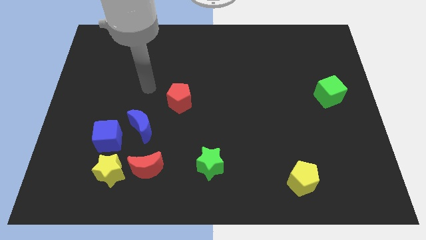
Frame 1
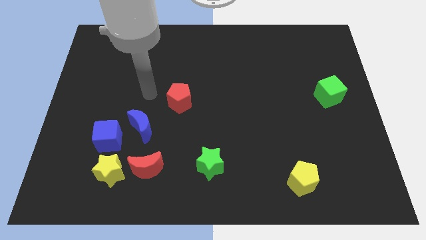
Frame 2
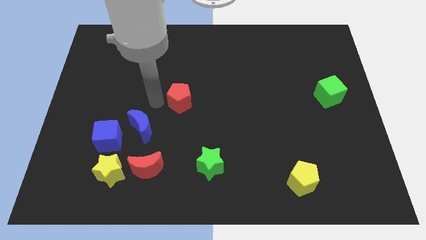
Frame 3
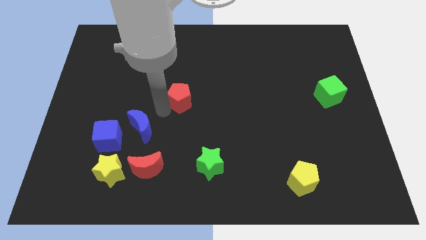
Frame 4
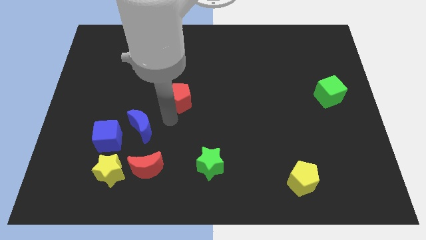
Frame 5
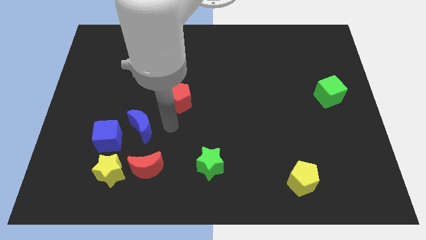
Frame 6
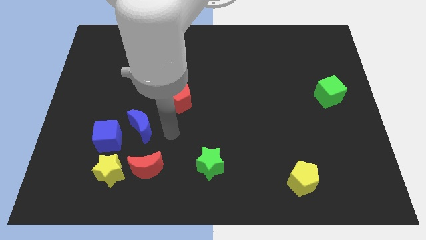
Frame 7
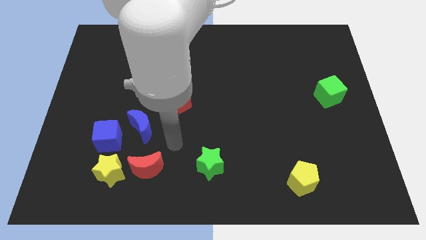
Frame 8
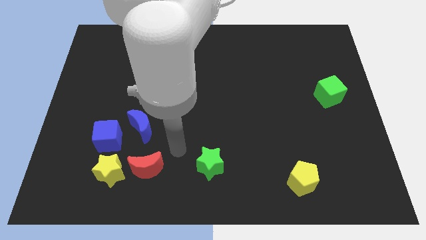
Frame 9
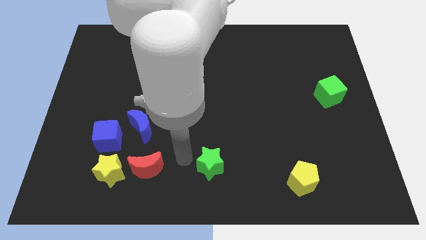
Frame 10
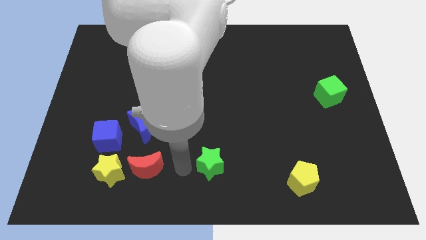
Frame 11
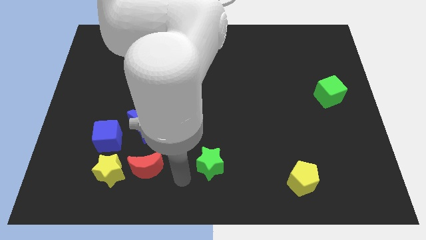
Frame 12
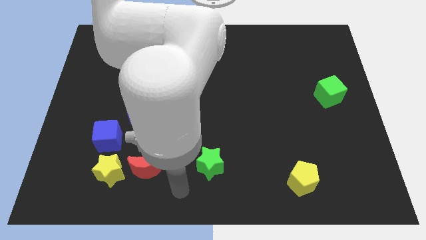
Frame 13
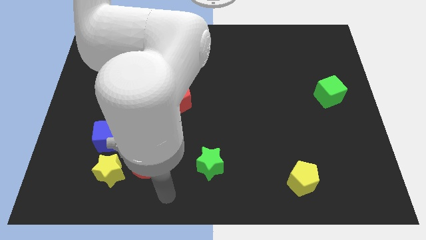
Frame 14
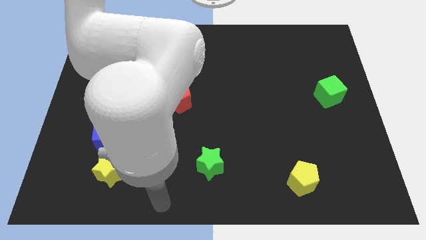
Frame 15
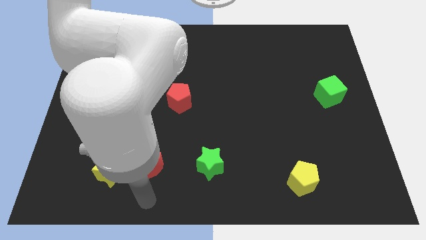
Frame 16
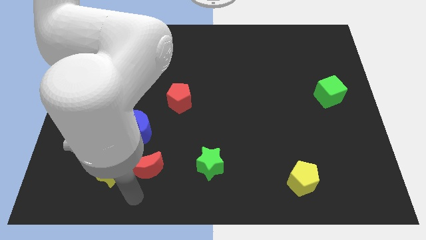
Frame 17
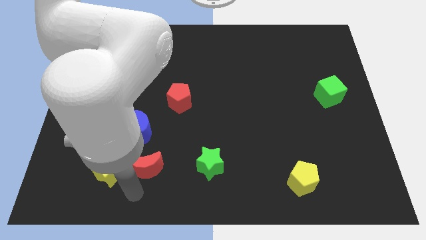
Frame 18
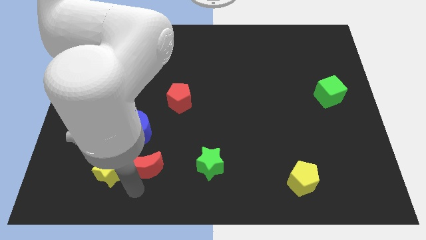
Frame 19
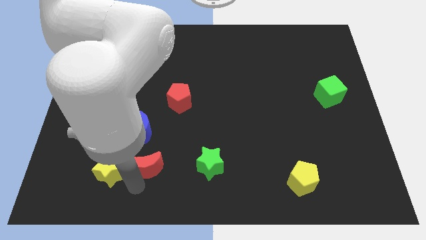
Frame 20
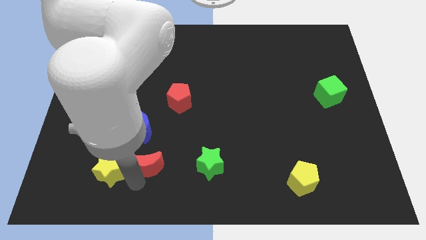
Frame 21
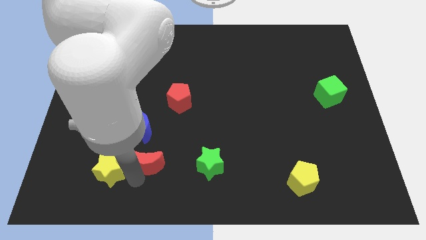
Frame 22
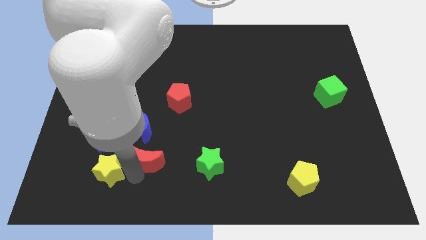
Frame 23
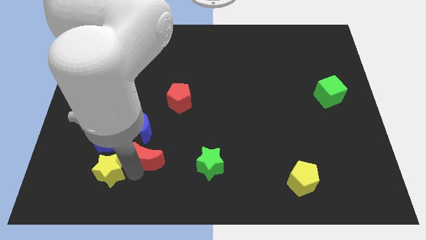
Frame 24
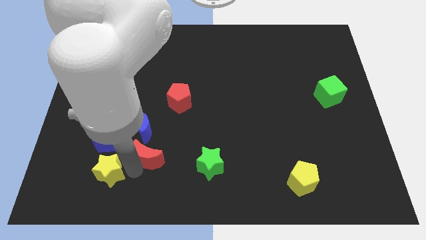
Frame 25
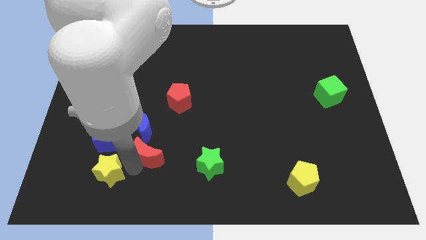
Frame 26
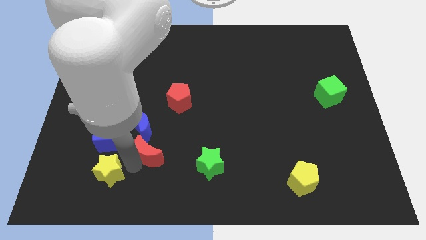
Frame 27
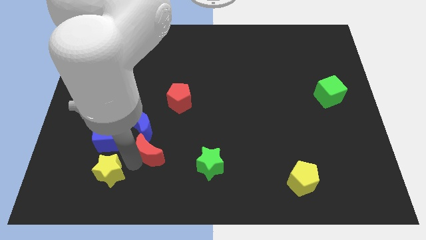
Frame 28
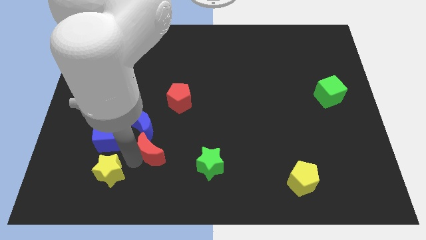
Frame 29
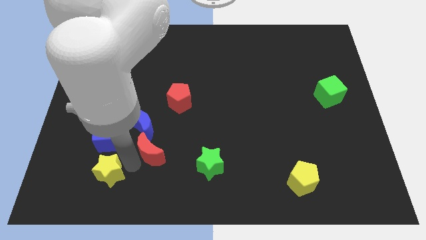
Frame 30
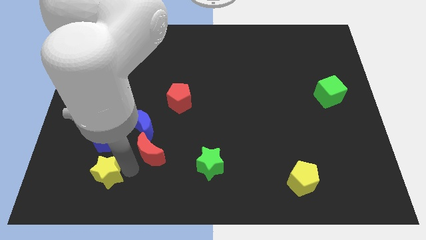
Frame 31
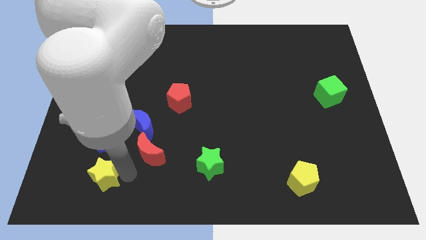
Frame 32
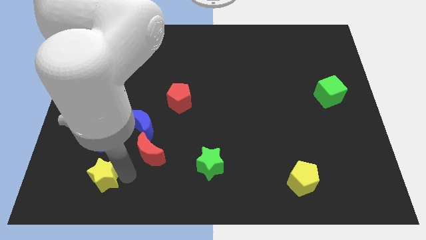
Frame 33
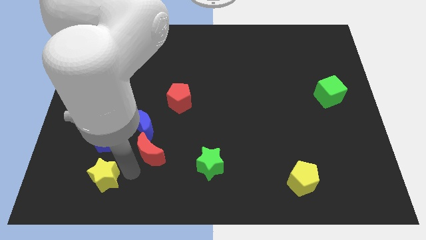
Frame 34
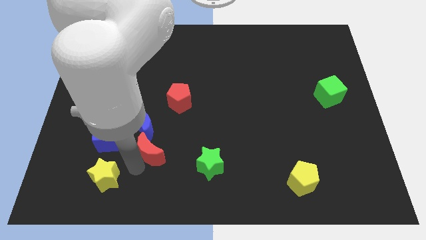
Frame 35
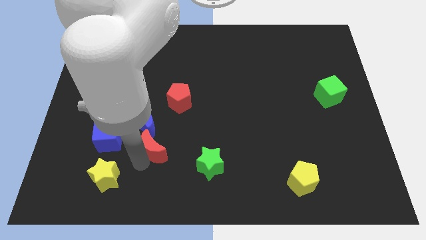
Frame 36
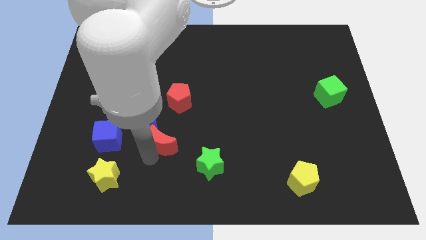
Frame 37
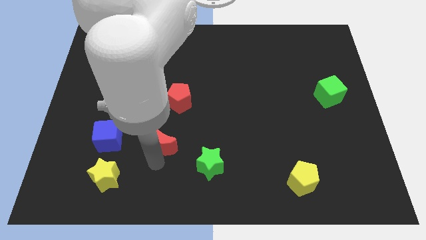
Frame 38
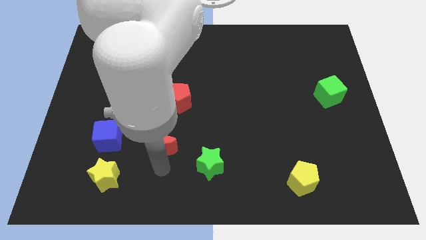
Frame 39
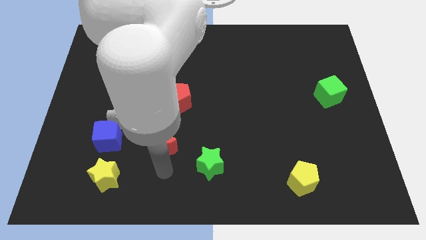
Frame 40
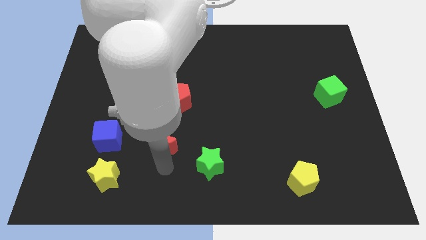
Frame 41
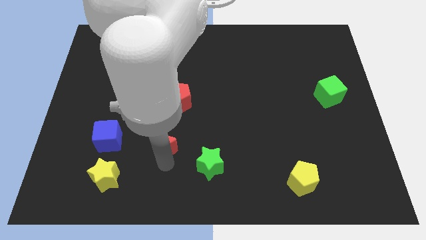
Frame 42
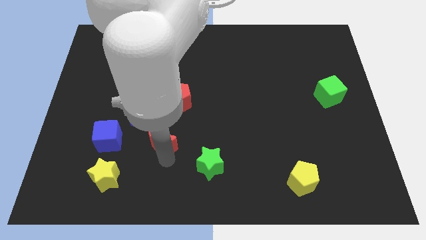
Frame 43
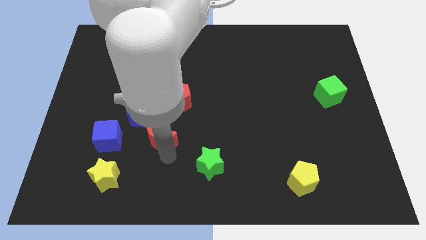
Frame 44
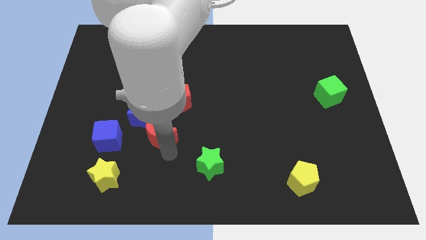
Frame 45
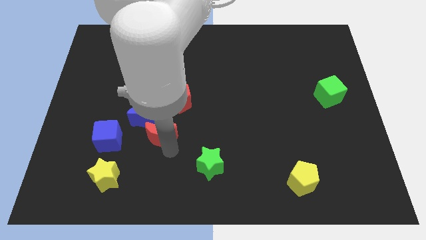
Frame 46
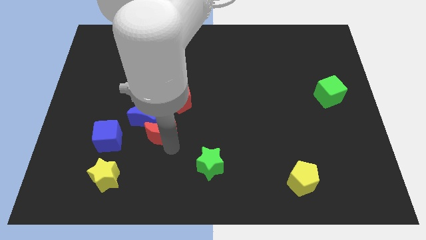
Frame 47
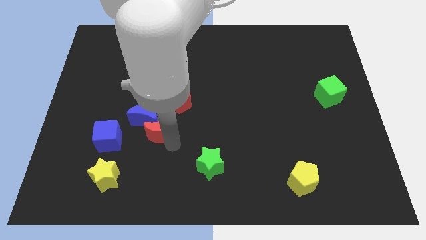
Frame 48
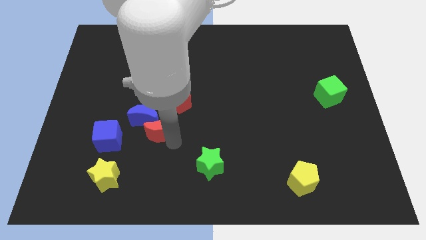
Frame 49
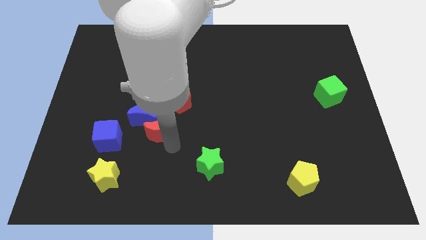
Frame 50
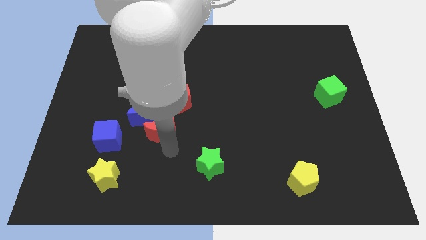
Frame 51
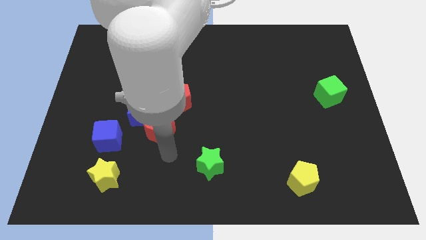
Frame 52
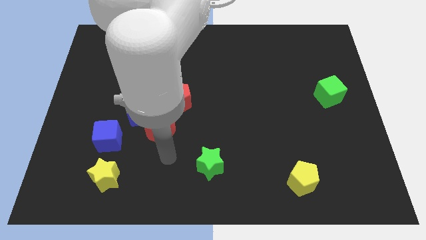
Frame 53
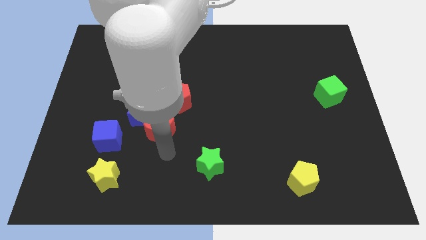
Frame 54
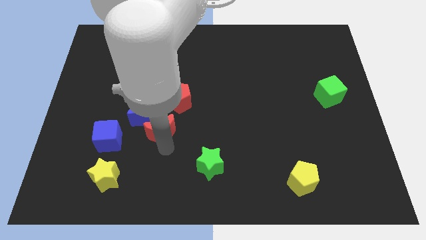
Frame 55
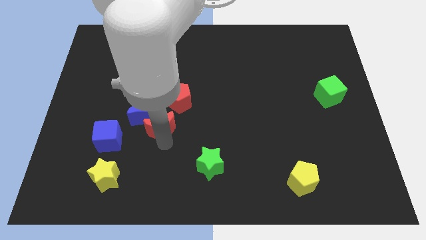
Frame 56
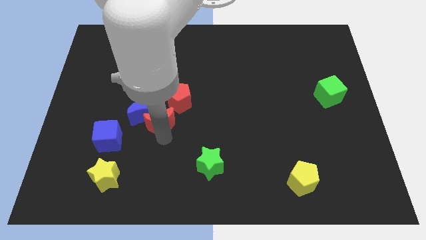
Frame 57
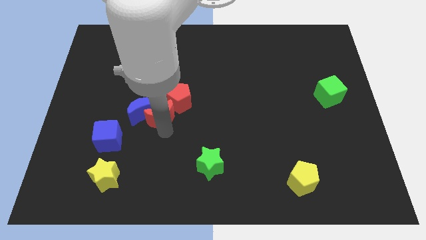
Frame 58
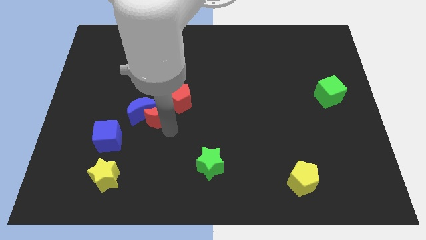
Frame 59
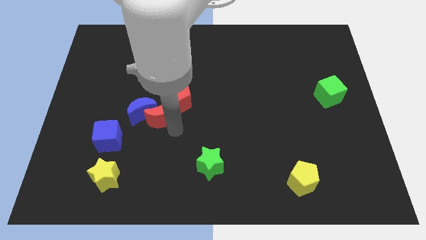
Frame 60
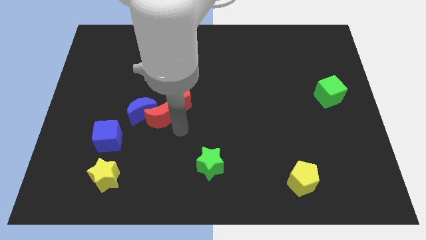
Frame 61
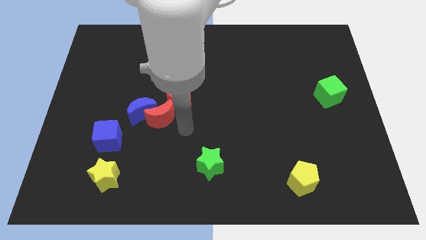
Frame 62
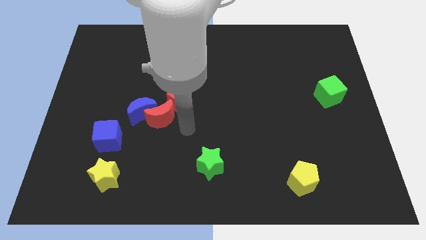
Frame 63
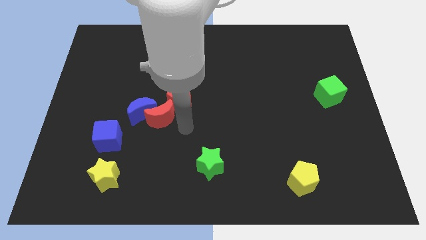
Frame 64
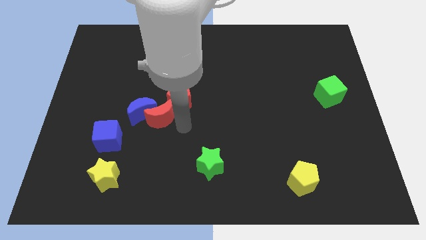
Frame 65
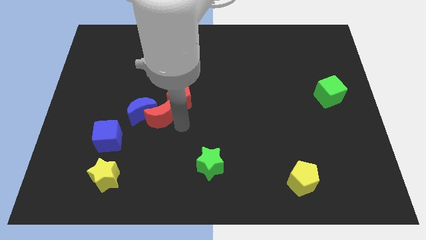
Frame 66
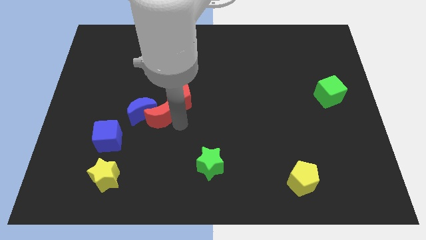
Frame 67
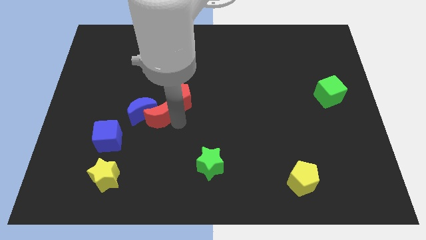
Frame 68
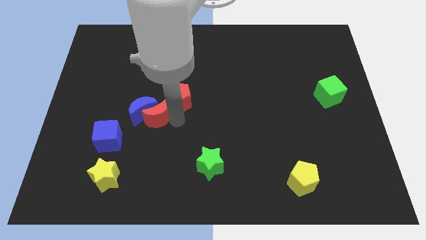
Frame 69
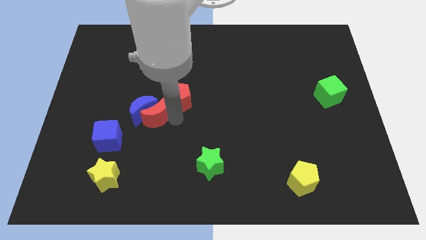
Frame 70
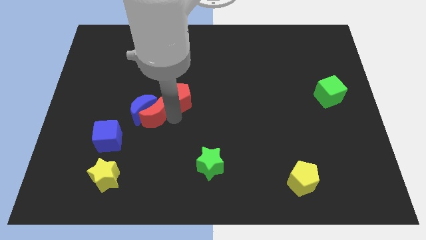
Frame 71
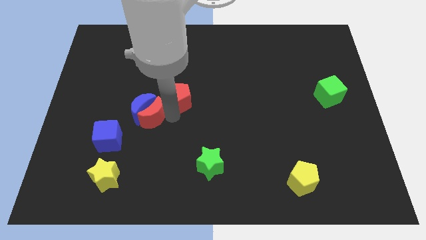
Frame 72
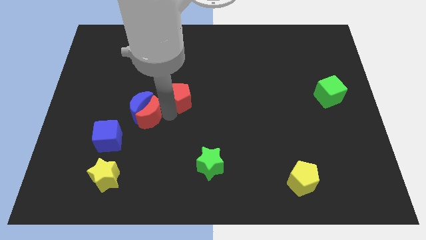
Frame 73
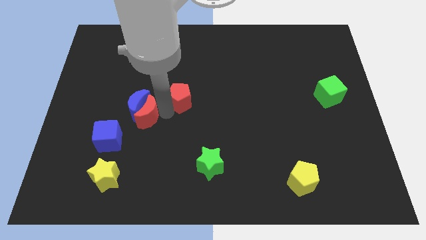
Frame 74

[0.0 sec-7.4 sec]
move the red moon upwards and then to the left somewhat

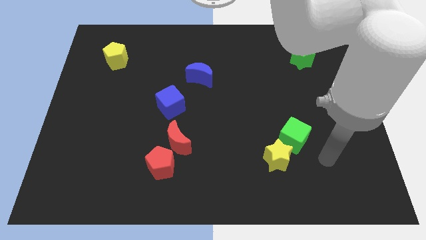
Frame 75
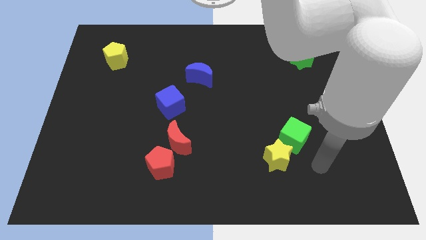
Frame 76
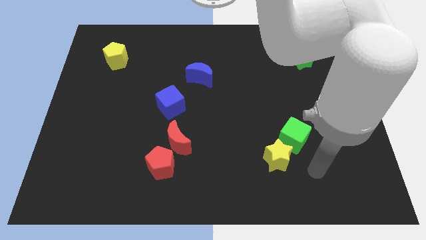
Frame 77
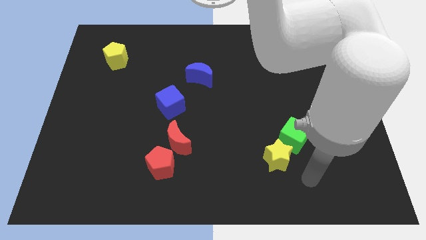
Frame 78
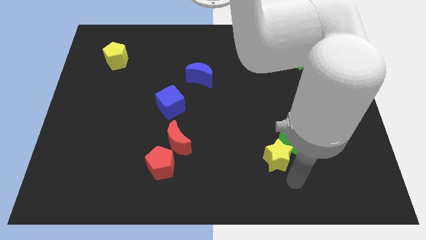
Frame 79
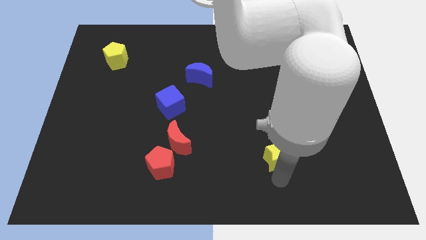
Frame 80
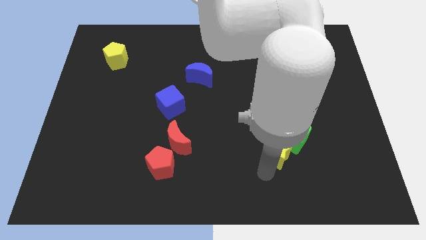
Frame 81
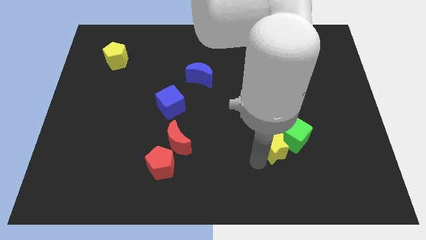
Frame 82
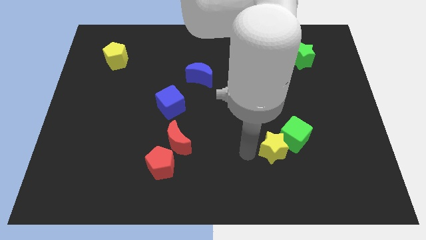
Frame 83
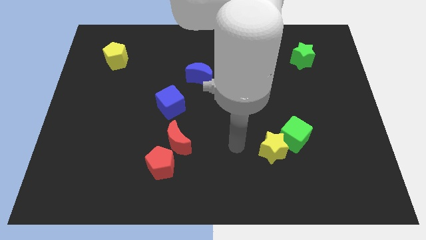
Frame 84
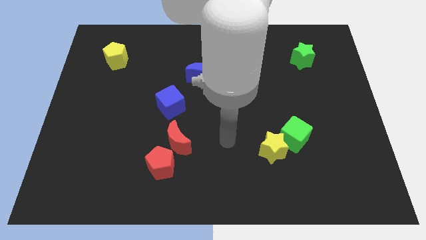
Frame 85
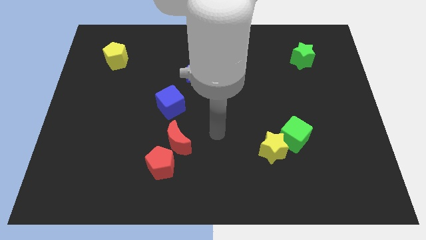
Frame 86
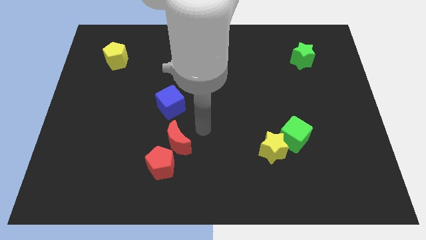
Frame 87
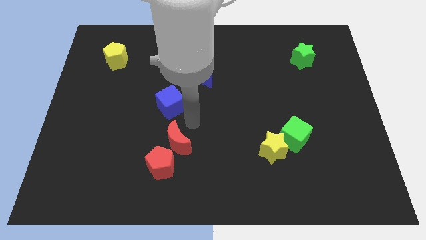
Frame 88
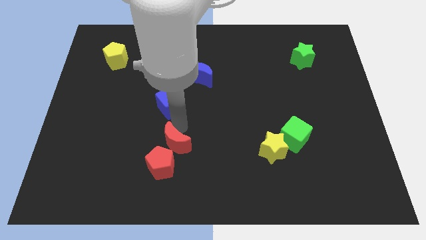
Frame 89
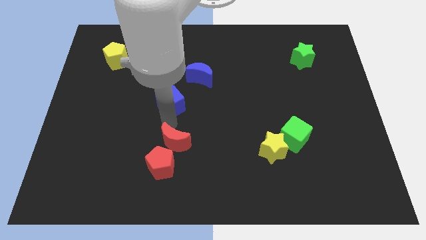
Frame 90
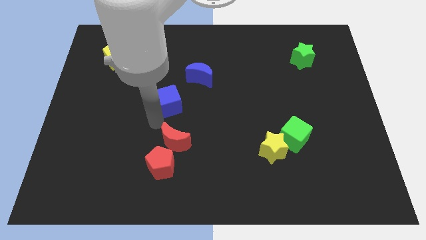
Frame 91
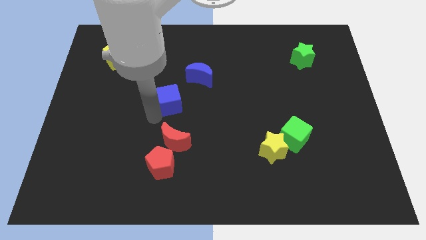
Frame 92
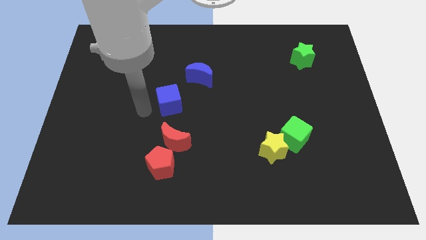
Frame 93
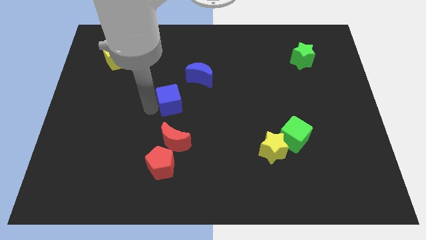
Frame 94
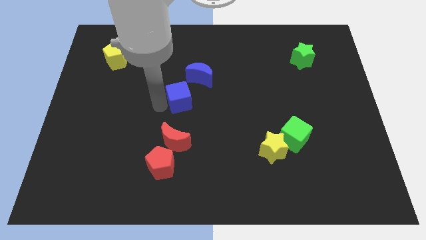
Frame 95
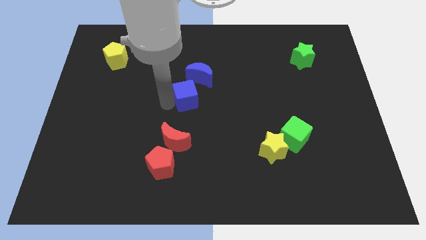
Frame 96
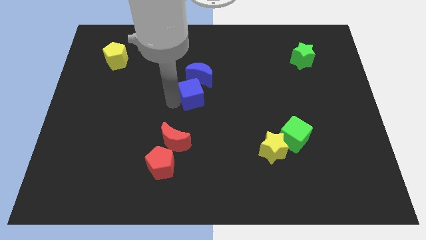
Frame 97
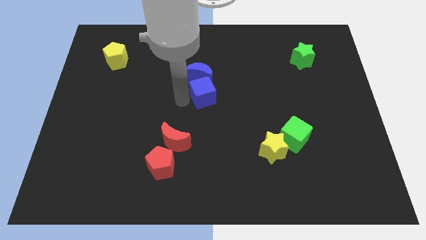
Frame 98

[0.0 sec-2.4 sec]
slightly slide the blue cube up and then right
